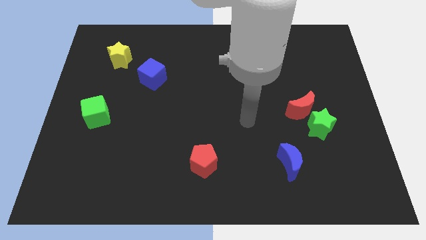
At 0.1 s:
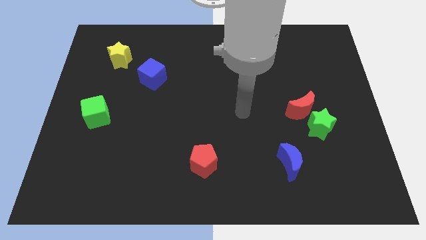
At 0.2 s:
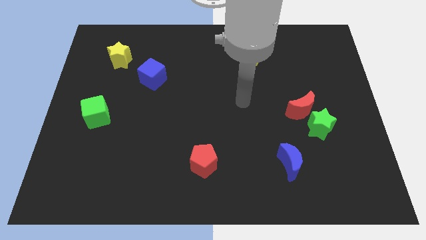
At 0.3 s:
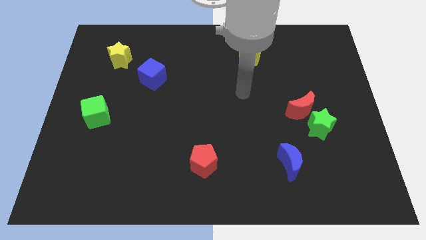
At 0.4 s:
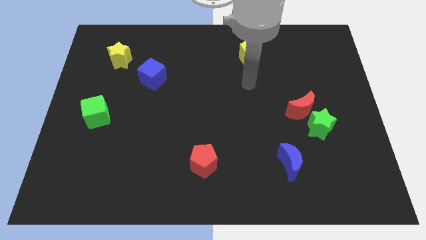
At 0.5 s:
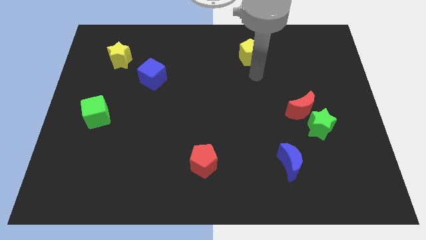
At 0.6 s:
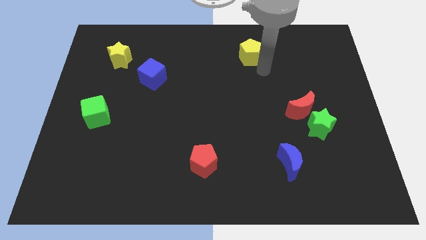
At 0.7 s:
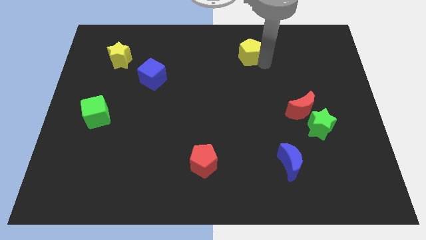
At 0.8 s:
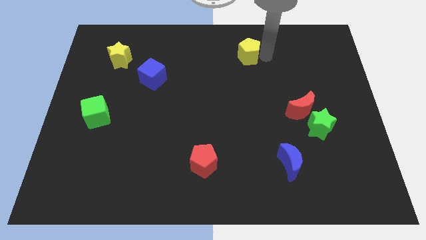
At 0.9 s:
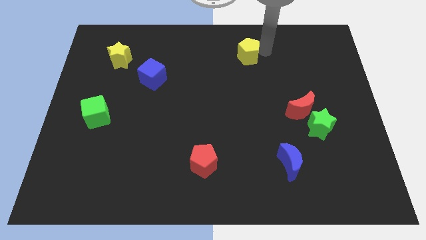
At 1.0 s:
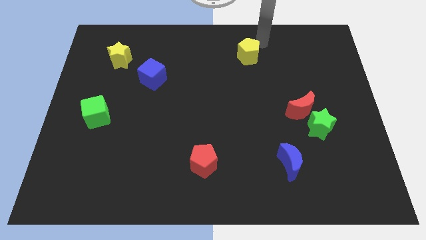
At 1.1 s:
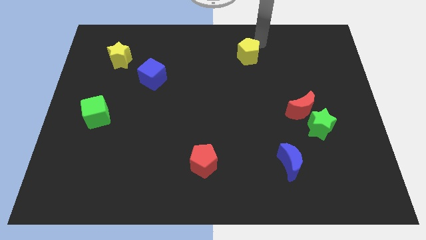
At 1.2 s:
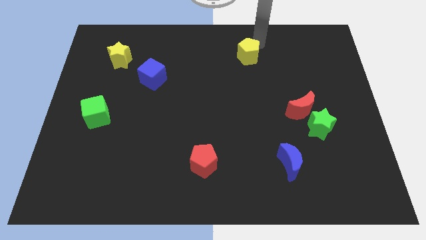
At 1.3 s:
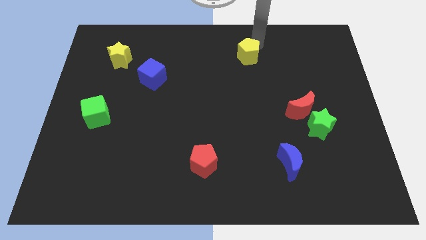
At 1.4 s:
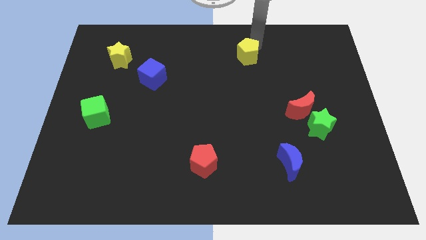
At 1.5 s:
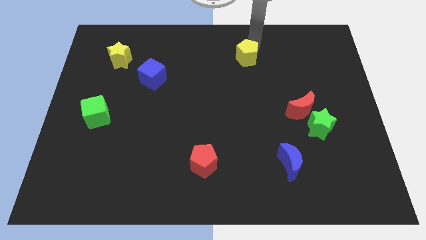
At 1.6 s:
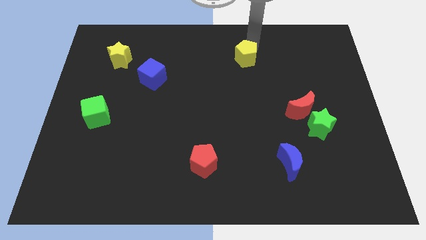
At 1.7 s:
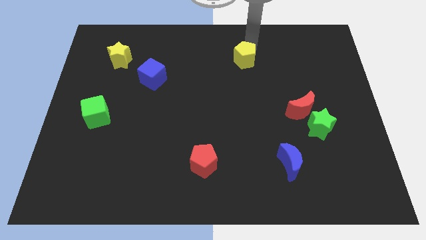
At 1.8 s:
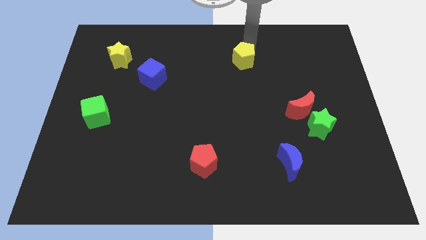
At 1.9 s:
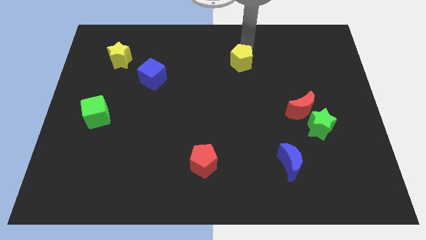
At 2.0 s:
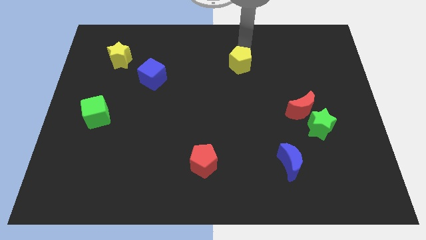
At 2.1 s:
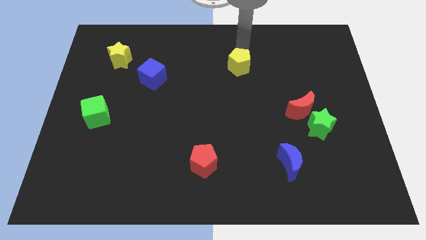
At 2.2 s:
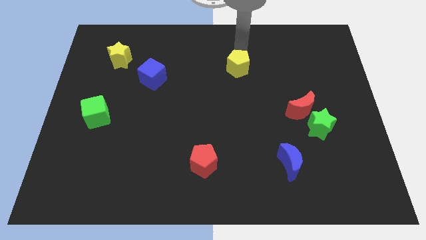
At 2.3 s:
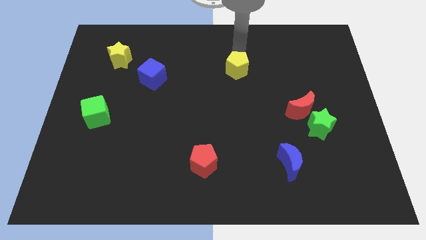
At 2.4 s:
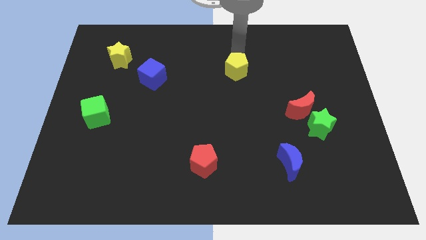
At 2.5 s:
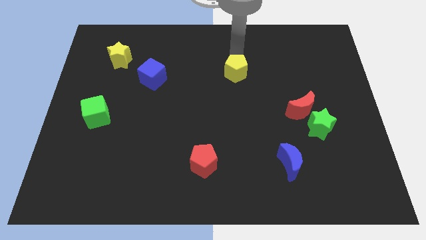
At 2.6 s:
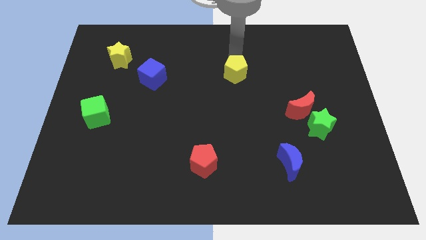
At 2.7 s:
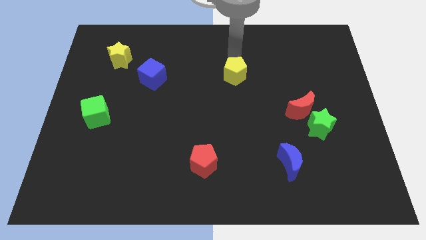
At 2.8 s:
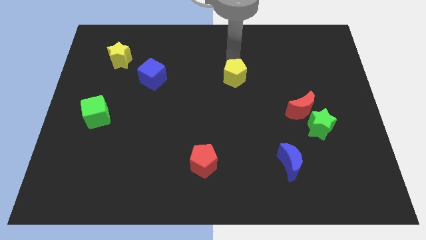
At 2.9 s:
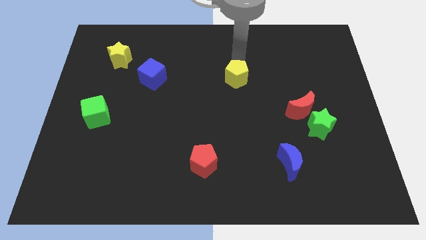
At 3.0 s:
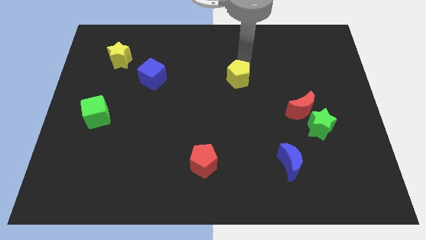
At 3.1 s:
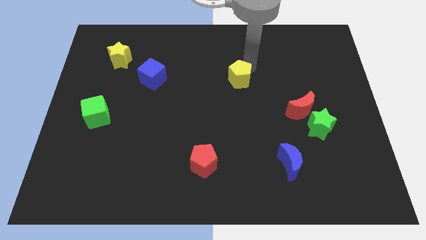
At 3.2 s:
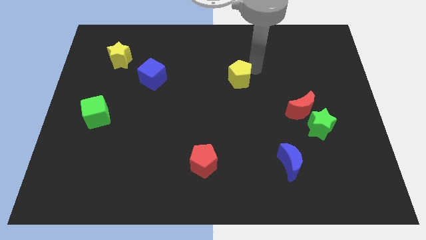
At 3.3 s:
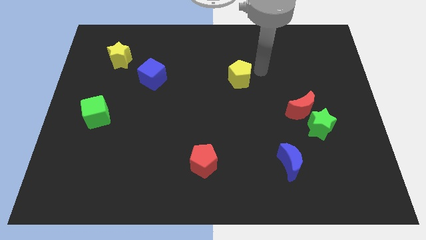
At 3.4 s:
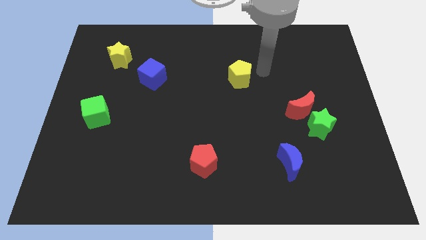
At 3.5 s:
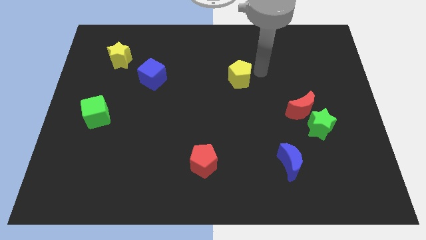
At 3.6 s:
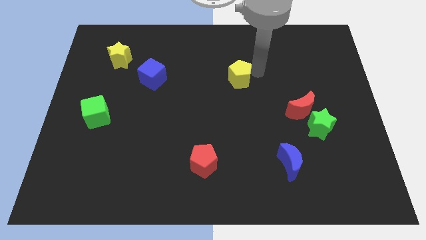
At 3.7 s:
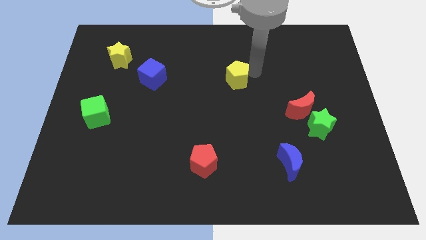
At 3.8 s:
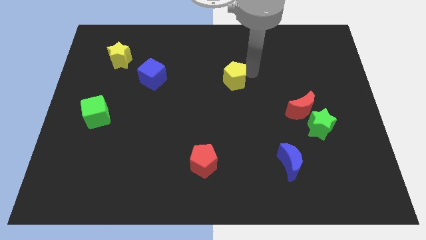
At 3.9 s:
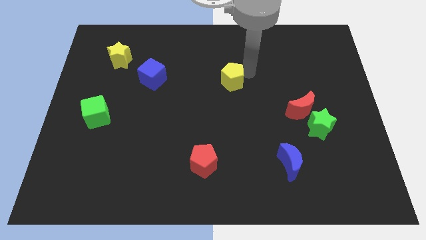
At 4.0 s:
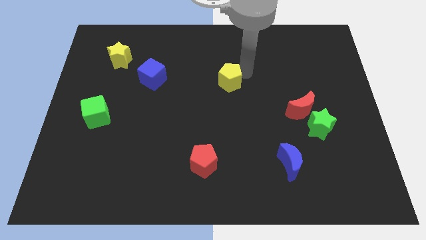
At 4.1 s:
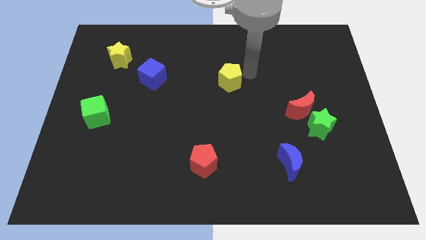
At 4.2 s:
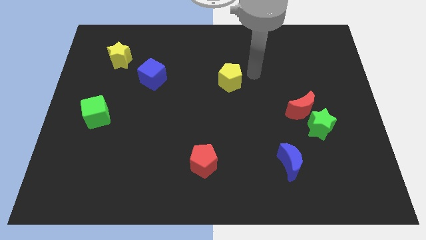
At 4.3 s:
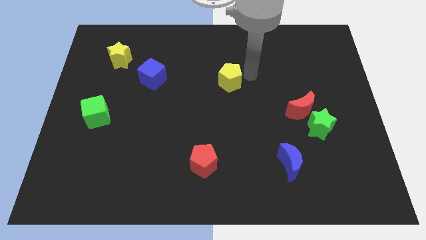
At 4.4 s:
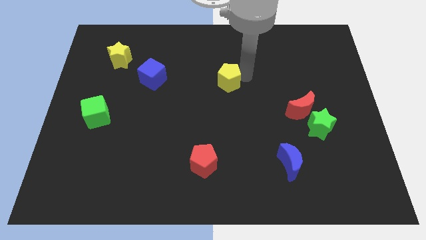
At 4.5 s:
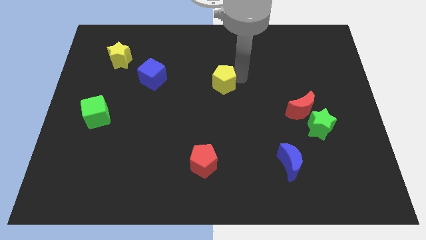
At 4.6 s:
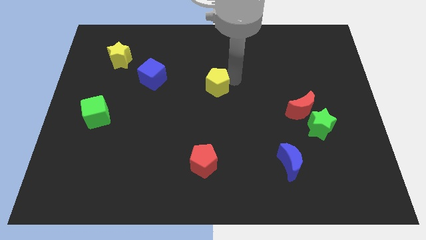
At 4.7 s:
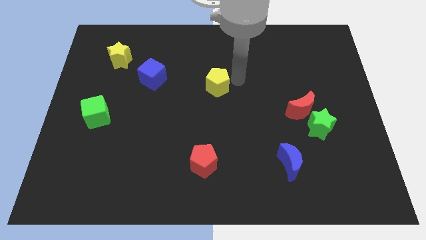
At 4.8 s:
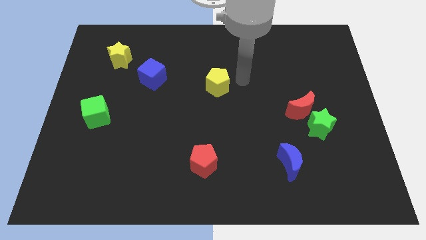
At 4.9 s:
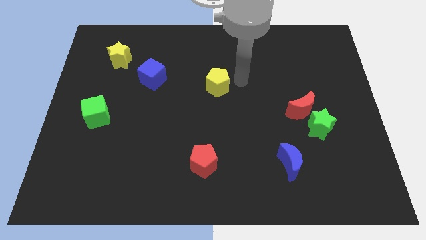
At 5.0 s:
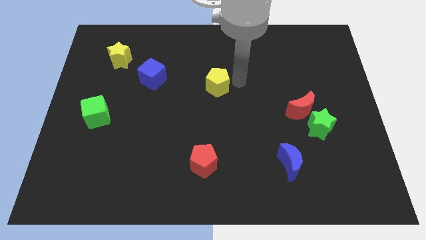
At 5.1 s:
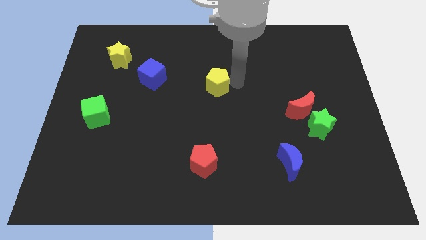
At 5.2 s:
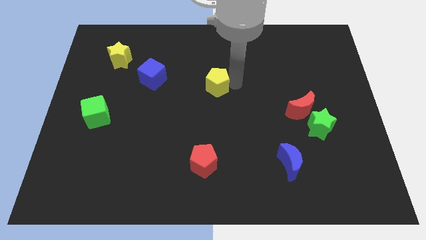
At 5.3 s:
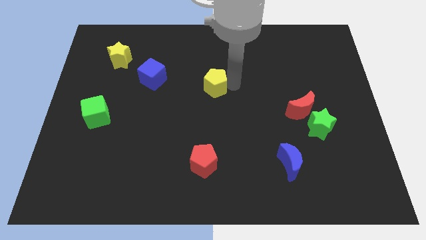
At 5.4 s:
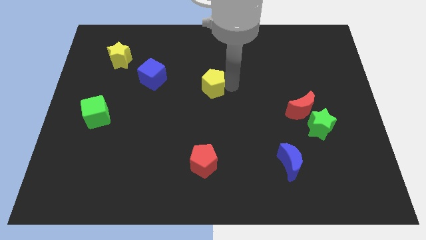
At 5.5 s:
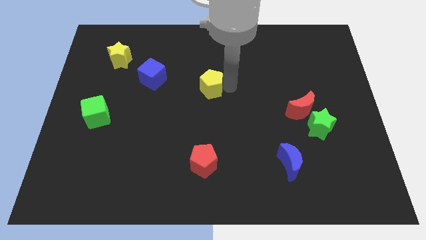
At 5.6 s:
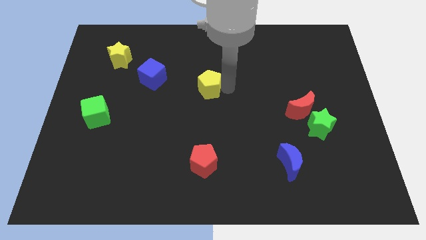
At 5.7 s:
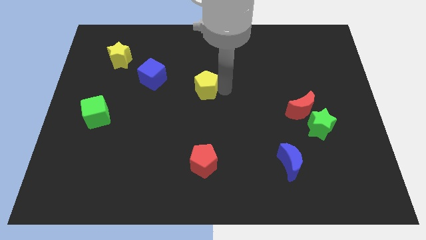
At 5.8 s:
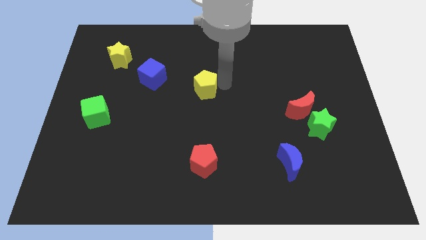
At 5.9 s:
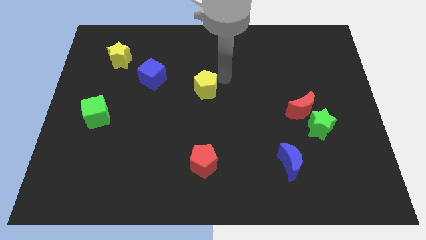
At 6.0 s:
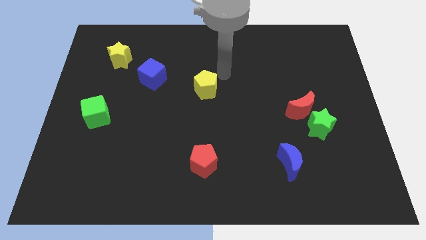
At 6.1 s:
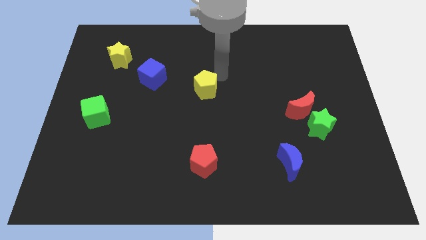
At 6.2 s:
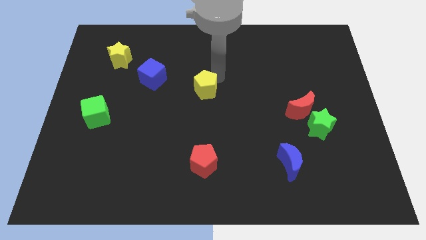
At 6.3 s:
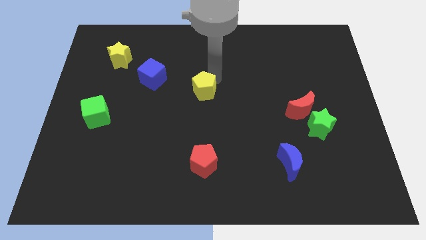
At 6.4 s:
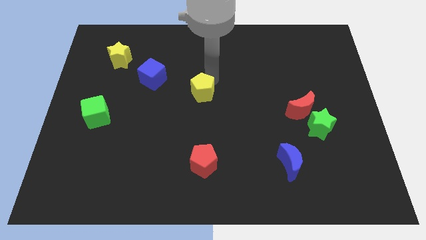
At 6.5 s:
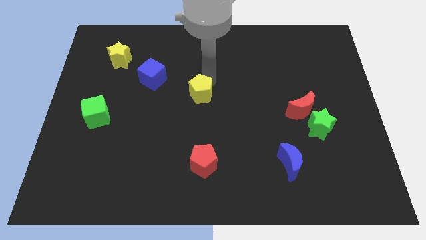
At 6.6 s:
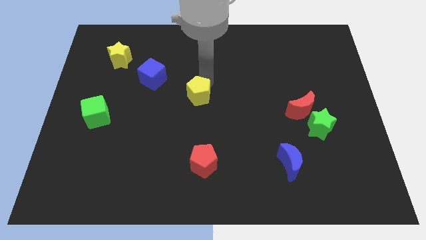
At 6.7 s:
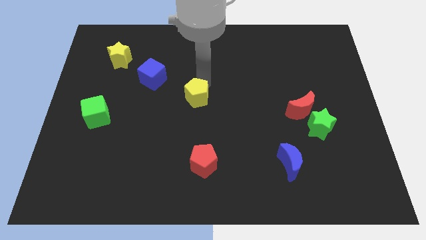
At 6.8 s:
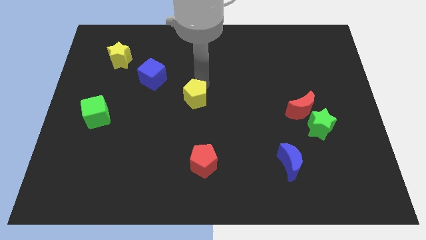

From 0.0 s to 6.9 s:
move the yellow pentagon downwards and then to the left

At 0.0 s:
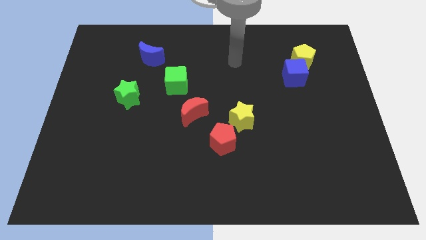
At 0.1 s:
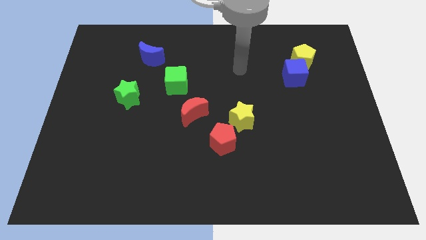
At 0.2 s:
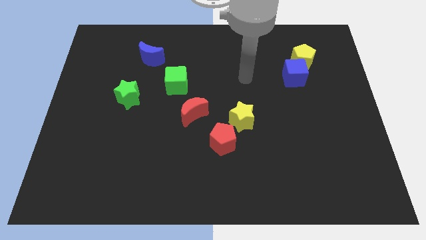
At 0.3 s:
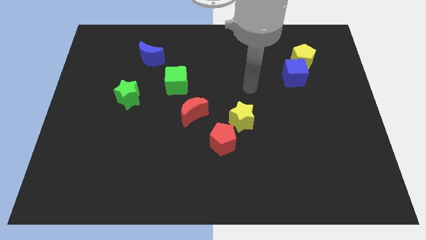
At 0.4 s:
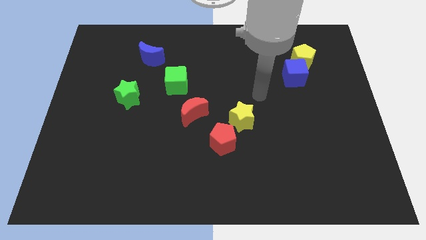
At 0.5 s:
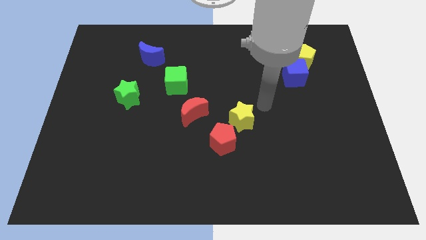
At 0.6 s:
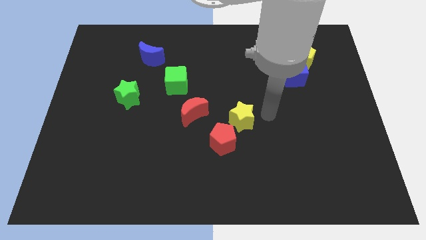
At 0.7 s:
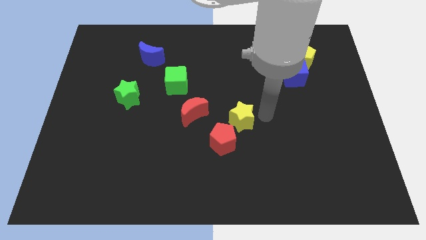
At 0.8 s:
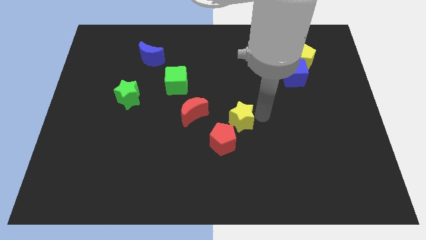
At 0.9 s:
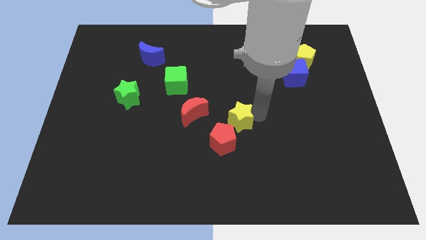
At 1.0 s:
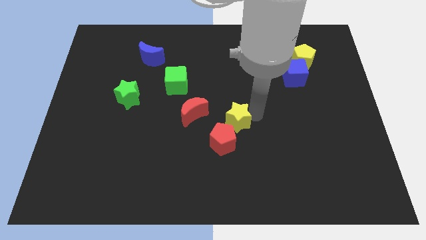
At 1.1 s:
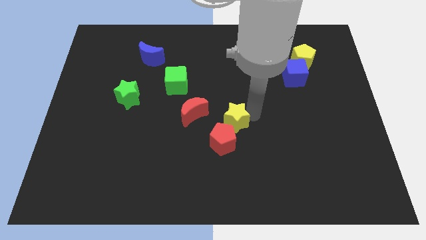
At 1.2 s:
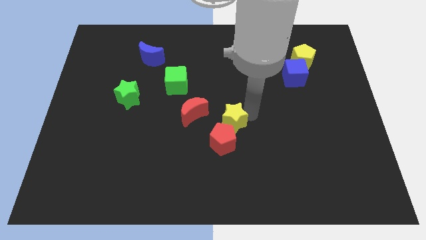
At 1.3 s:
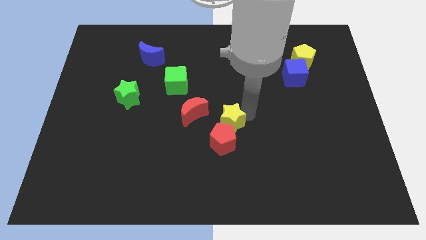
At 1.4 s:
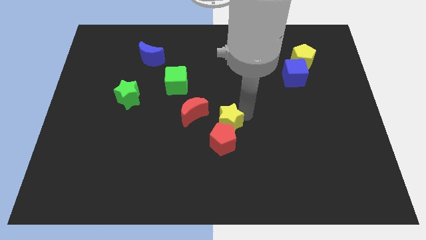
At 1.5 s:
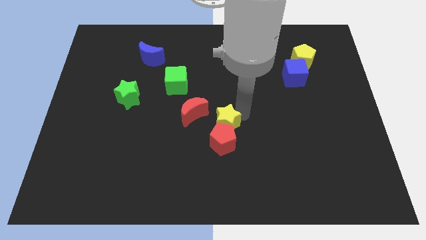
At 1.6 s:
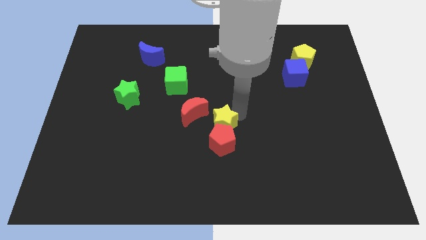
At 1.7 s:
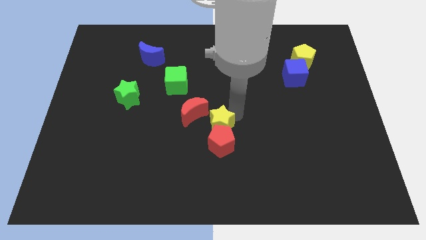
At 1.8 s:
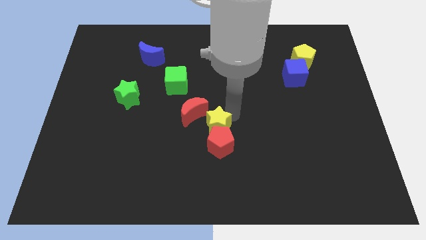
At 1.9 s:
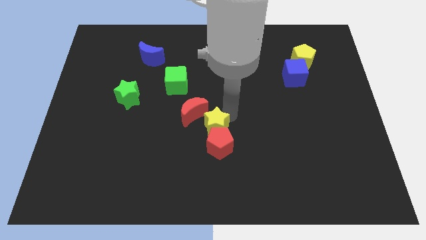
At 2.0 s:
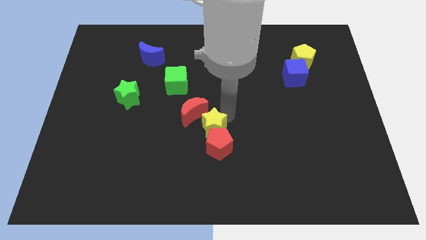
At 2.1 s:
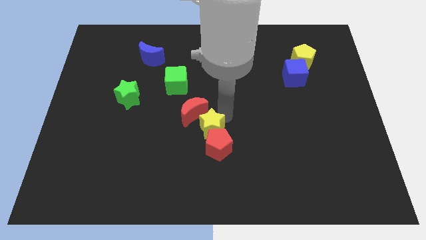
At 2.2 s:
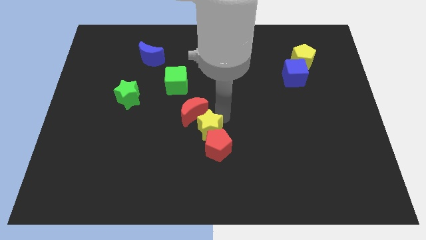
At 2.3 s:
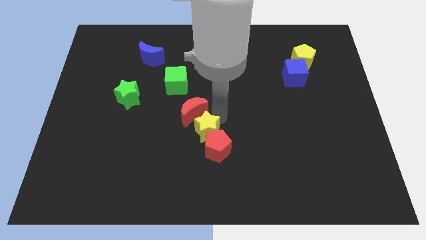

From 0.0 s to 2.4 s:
slide the yellow star down and to the left slightly
